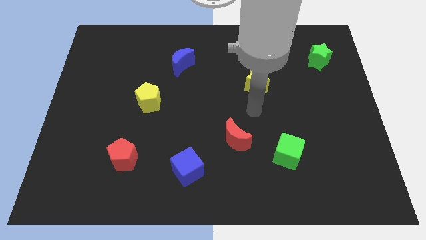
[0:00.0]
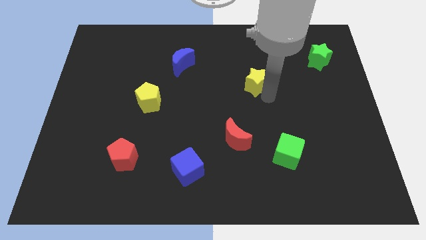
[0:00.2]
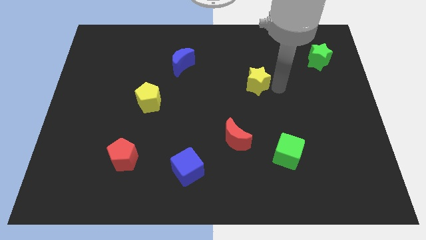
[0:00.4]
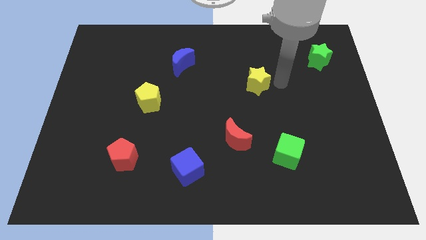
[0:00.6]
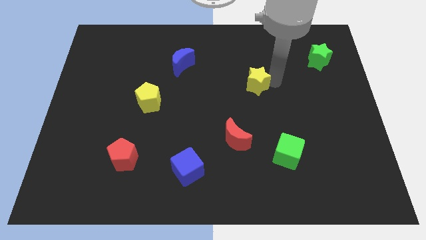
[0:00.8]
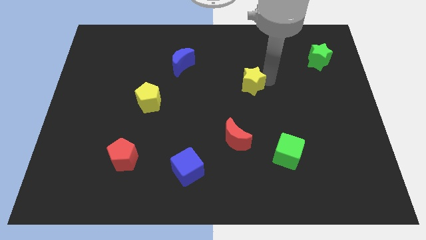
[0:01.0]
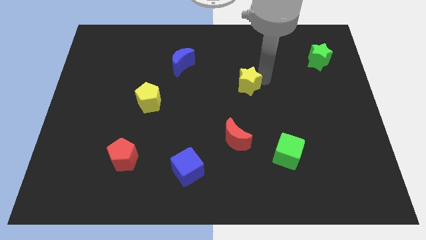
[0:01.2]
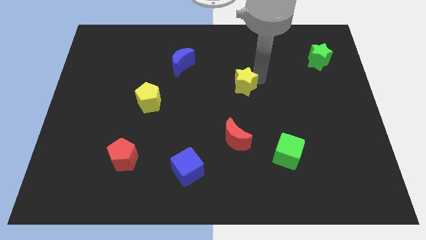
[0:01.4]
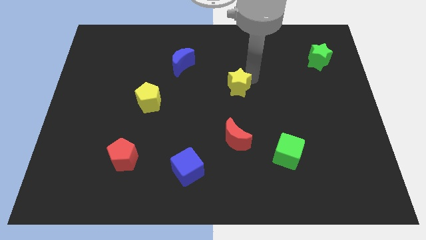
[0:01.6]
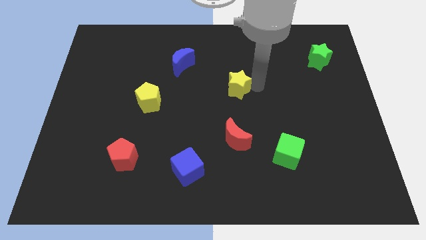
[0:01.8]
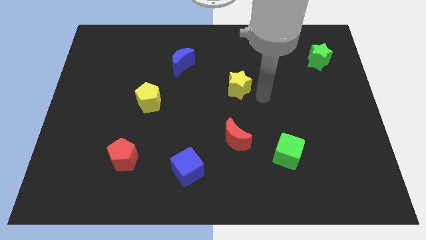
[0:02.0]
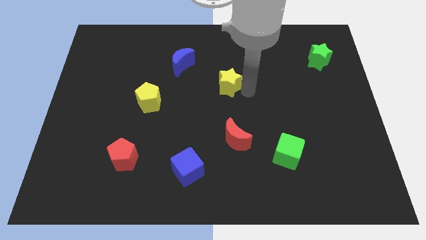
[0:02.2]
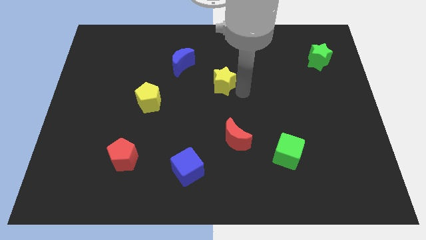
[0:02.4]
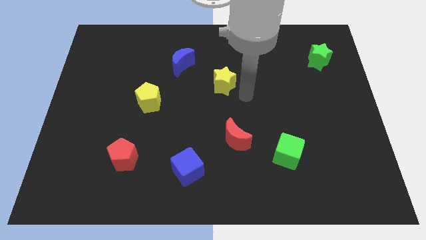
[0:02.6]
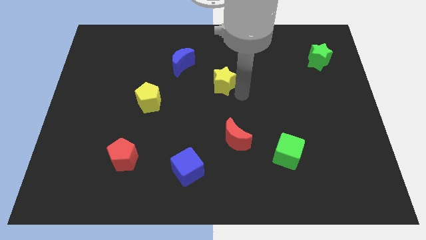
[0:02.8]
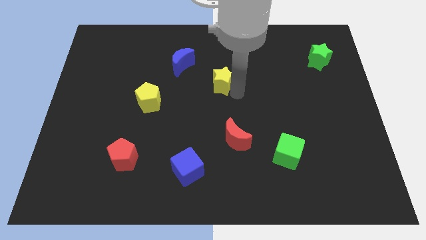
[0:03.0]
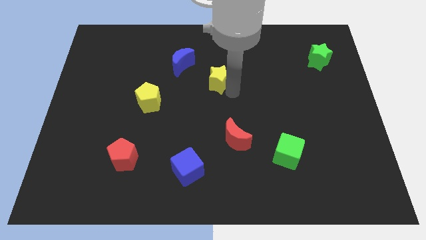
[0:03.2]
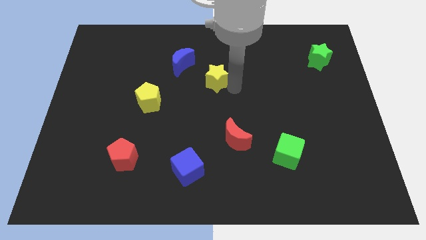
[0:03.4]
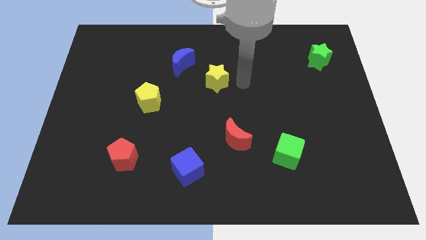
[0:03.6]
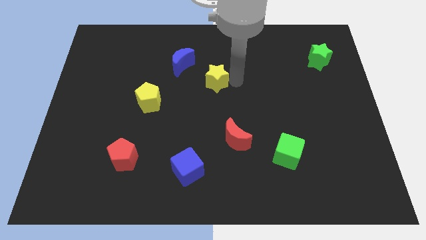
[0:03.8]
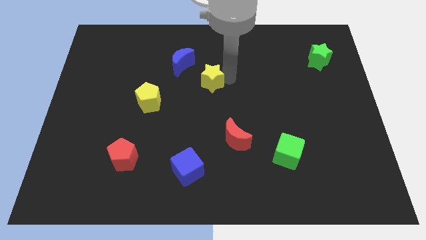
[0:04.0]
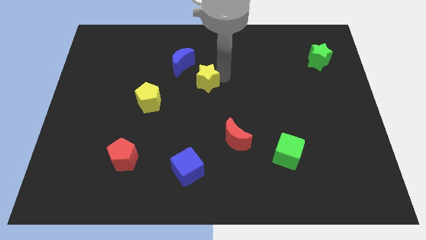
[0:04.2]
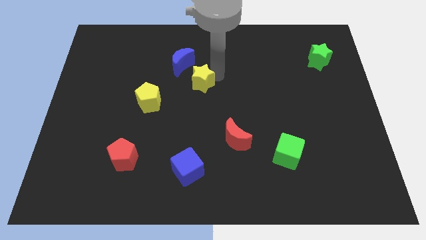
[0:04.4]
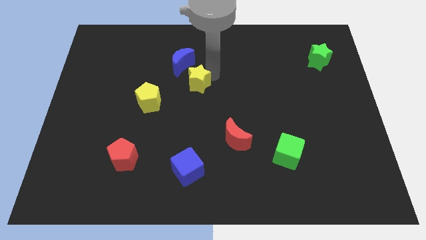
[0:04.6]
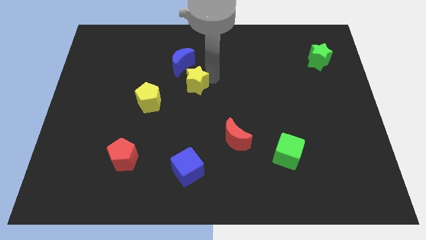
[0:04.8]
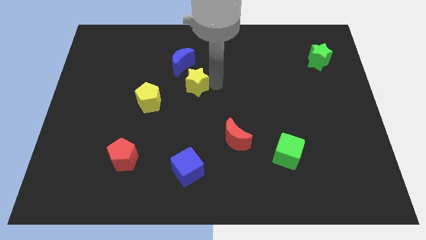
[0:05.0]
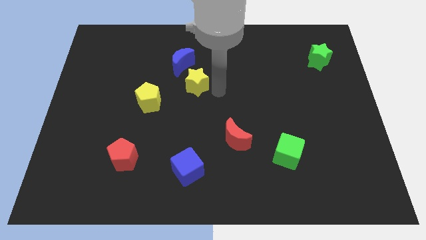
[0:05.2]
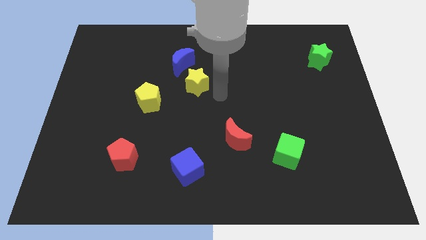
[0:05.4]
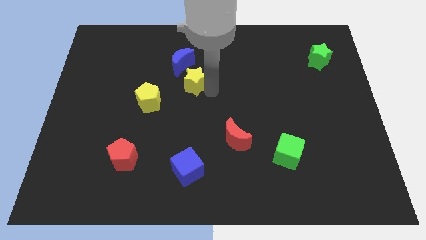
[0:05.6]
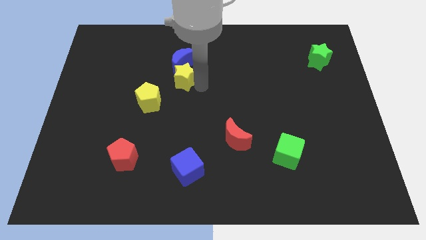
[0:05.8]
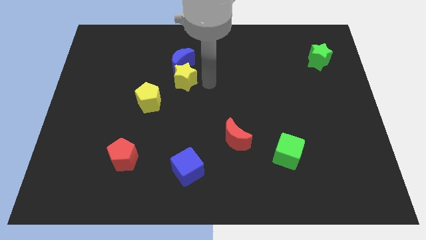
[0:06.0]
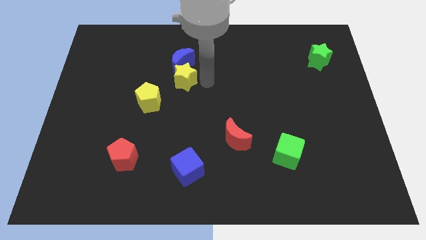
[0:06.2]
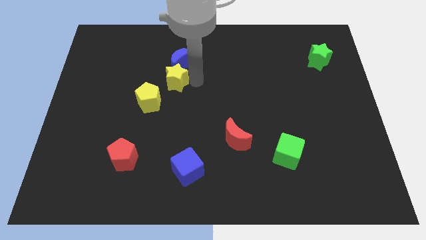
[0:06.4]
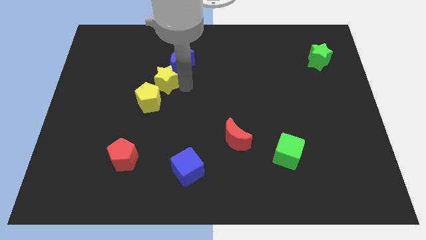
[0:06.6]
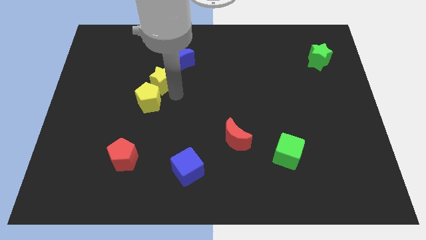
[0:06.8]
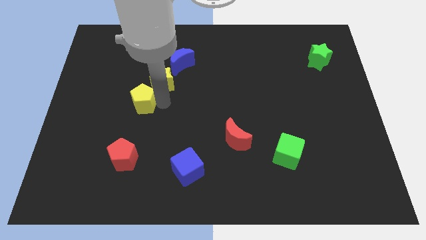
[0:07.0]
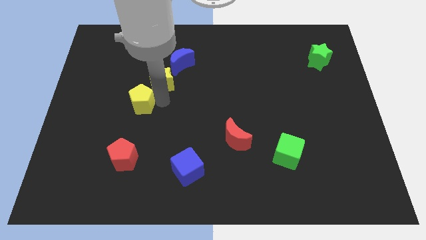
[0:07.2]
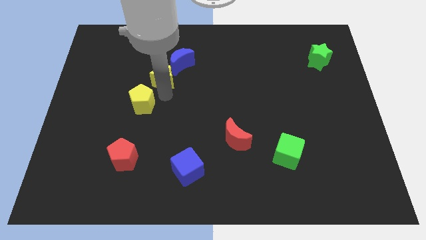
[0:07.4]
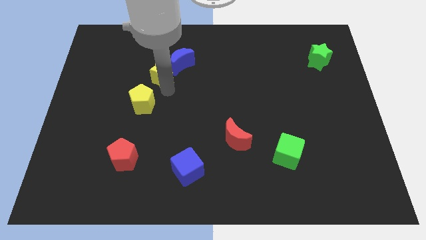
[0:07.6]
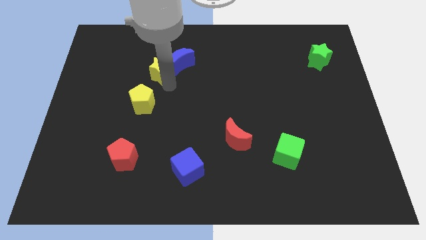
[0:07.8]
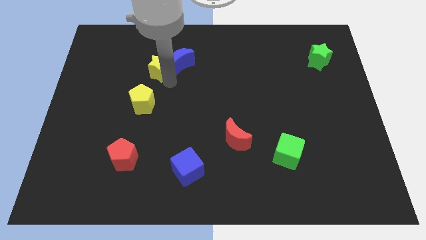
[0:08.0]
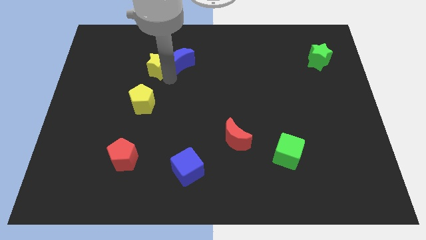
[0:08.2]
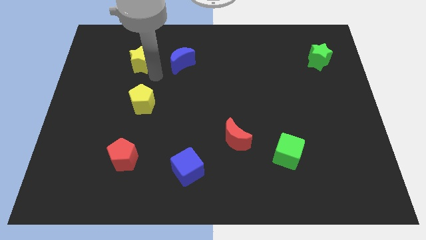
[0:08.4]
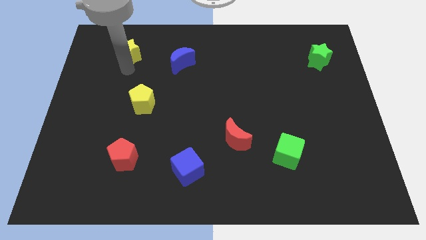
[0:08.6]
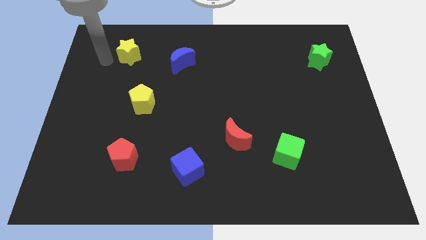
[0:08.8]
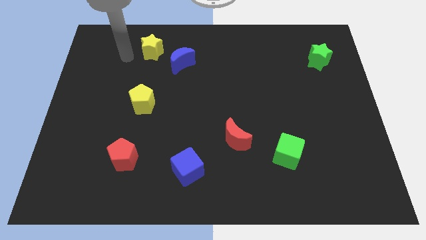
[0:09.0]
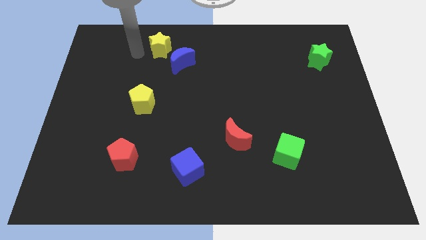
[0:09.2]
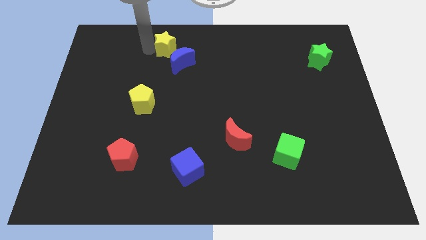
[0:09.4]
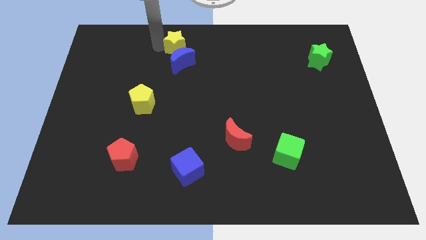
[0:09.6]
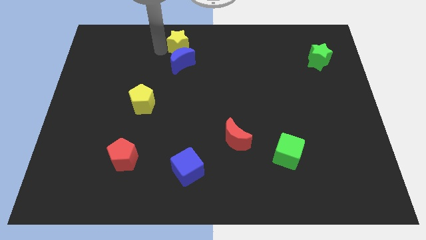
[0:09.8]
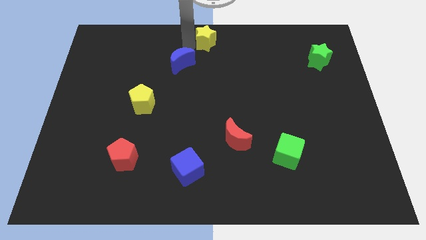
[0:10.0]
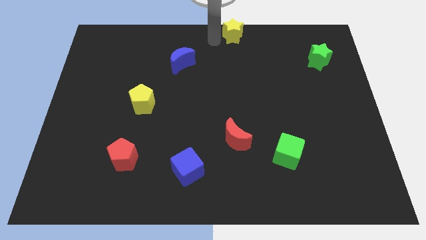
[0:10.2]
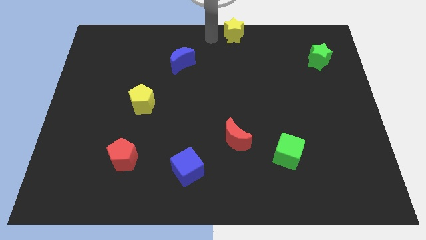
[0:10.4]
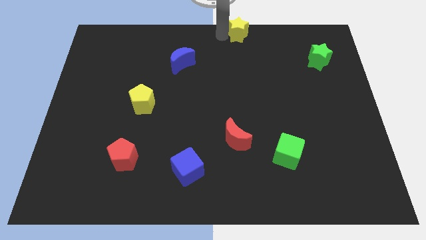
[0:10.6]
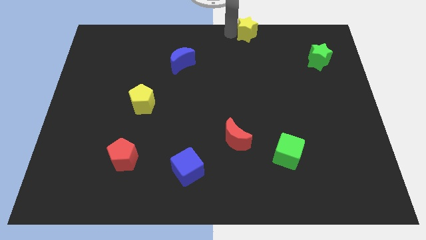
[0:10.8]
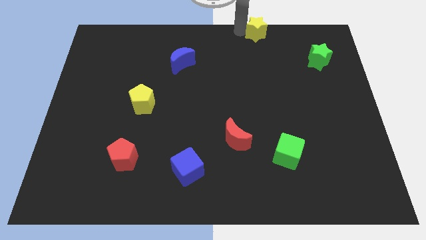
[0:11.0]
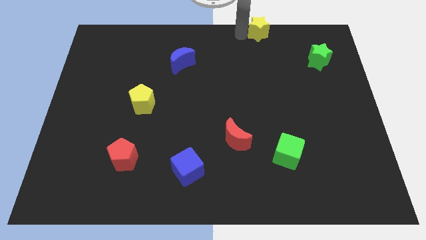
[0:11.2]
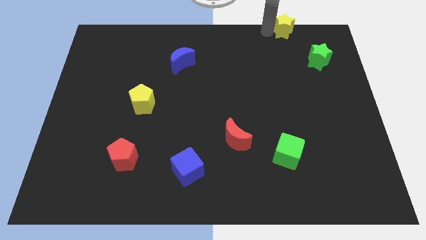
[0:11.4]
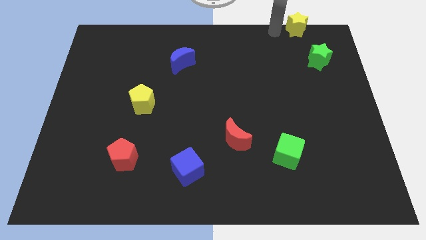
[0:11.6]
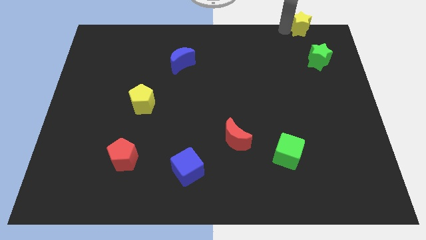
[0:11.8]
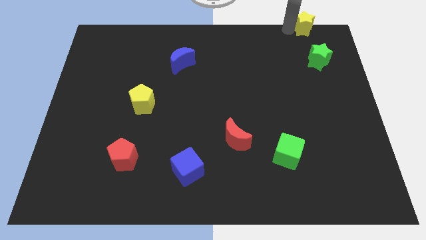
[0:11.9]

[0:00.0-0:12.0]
put the yellow star to the top right

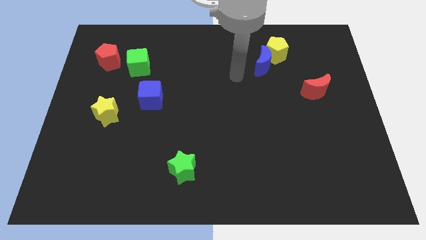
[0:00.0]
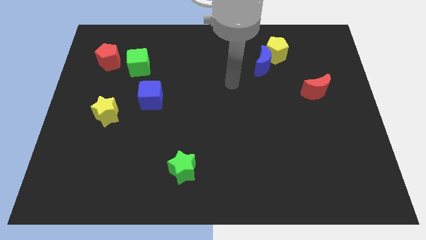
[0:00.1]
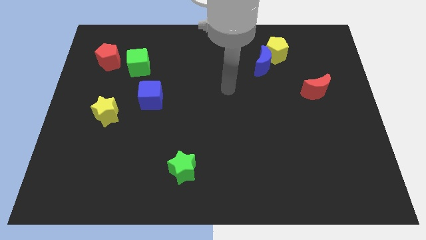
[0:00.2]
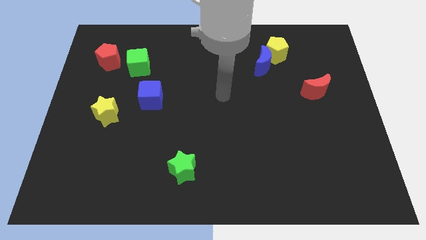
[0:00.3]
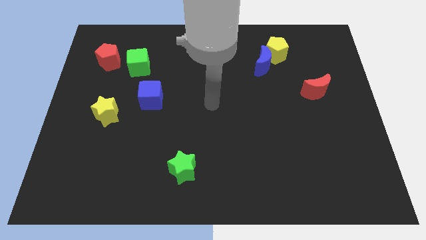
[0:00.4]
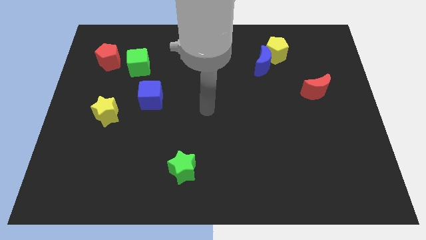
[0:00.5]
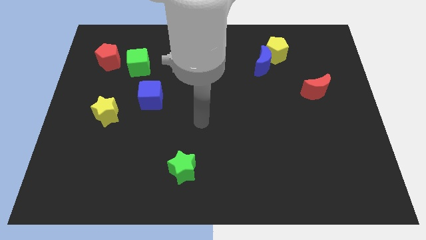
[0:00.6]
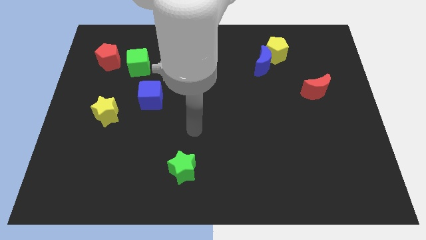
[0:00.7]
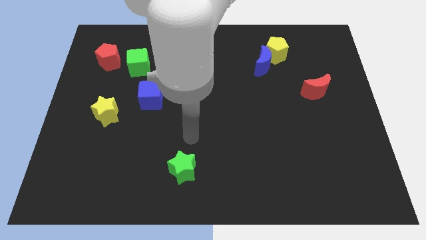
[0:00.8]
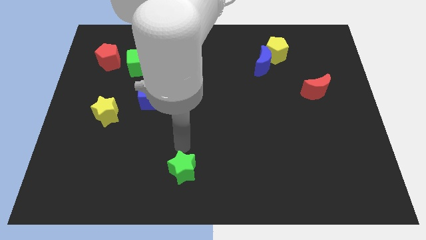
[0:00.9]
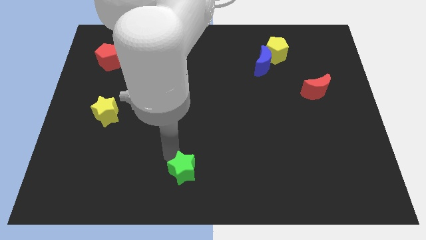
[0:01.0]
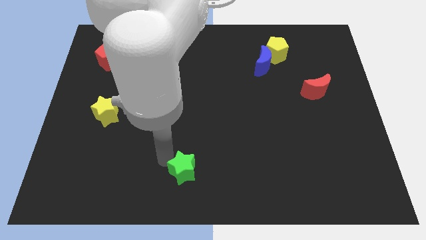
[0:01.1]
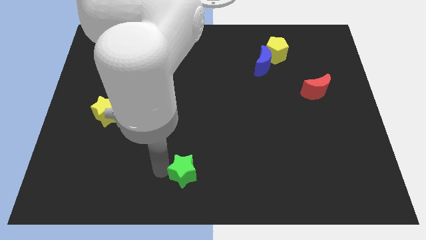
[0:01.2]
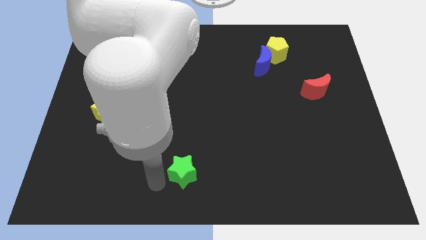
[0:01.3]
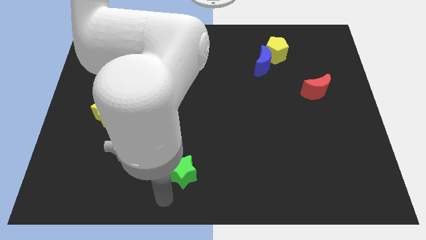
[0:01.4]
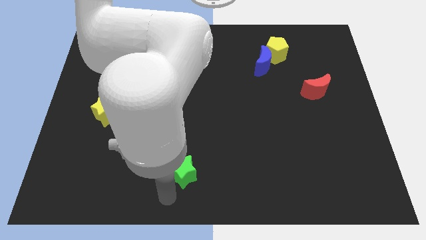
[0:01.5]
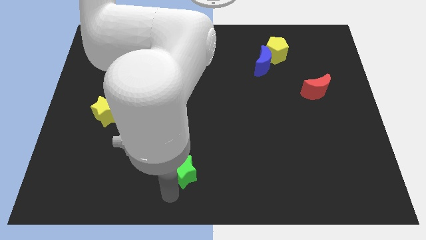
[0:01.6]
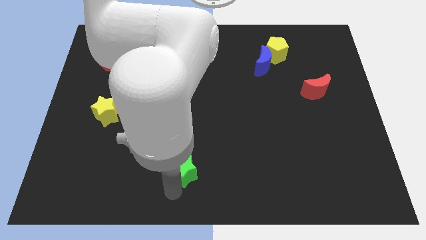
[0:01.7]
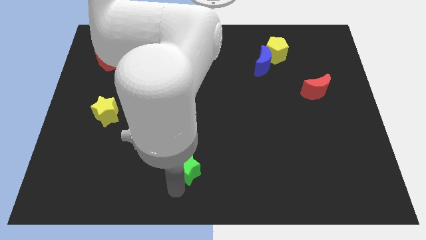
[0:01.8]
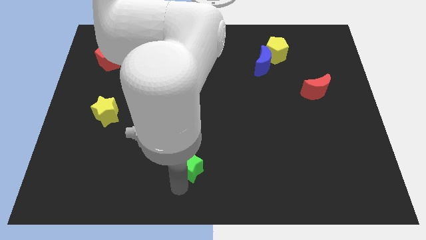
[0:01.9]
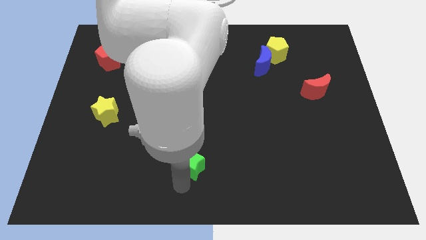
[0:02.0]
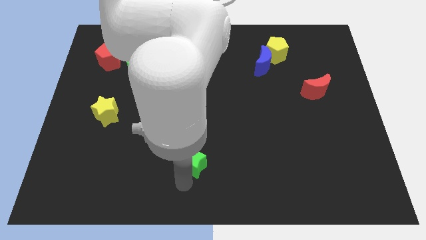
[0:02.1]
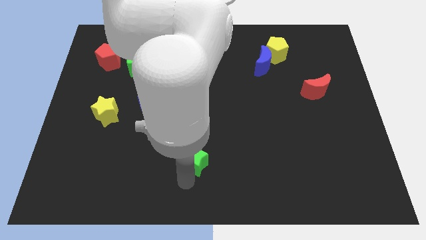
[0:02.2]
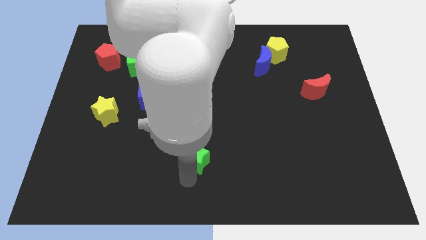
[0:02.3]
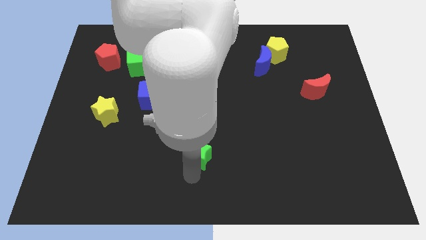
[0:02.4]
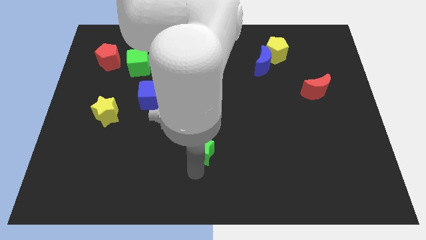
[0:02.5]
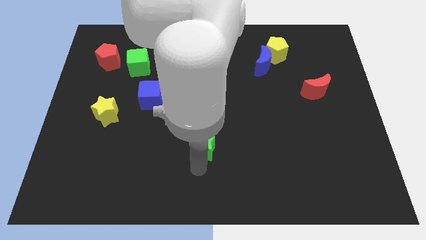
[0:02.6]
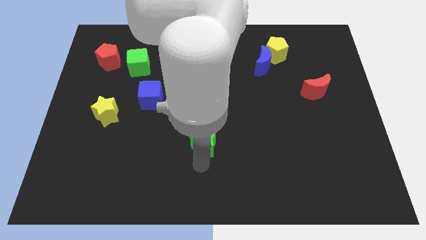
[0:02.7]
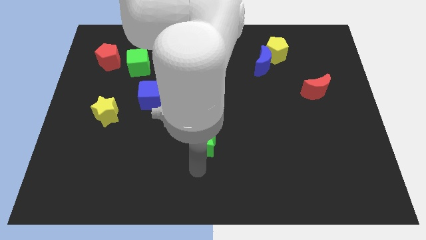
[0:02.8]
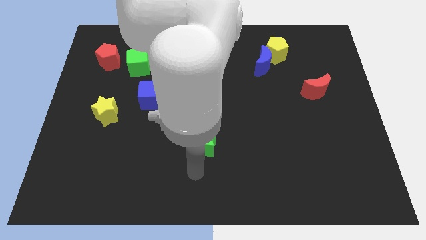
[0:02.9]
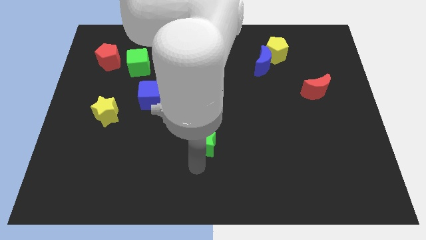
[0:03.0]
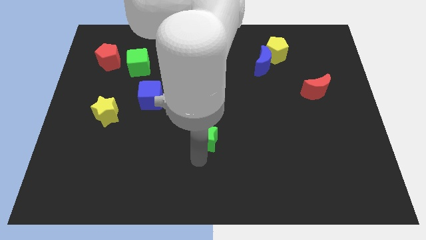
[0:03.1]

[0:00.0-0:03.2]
slide the green star to the middle of the board
